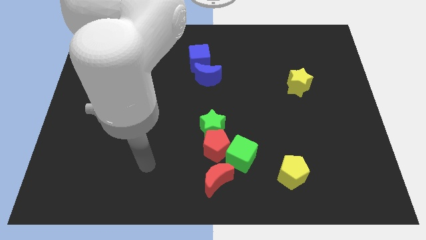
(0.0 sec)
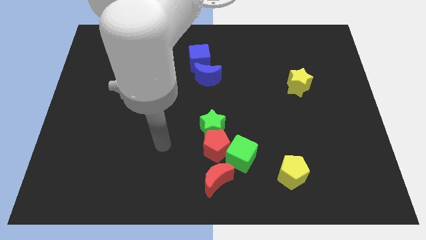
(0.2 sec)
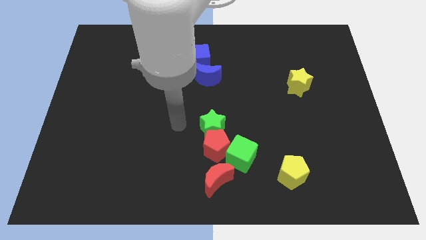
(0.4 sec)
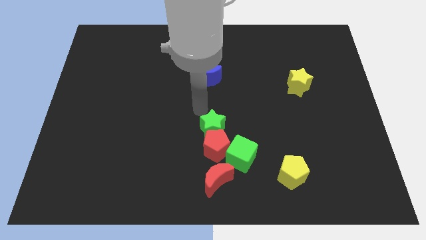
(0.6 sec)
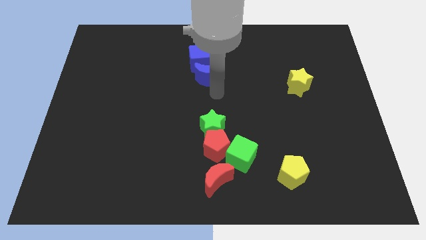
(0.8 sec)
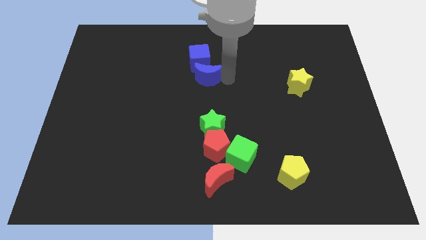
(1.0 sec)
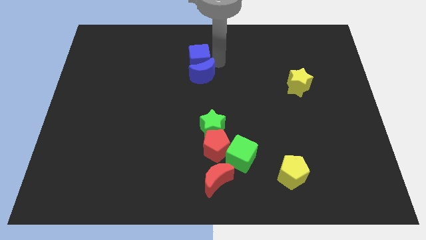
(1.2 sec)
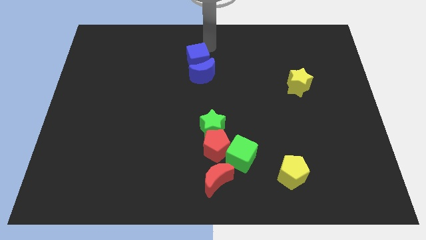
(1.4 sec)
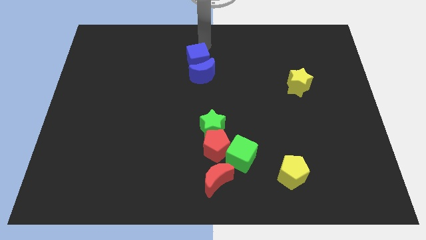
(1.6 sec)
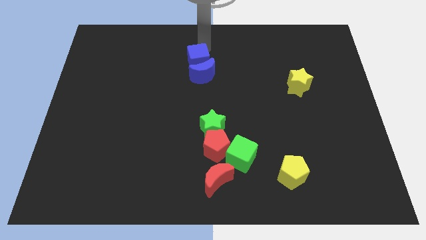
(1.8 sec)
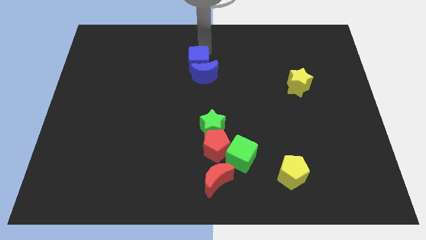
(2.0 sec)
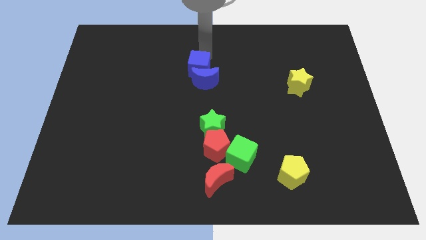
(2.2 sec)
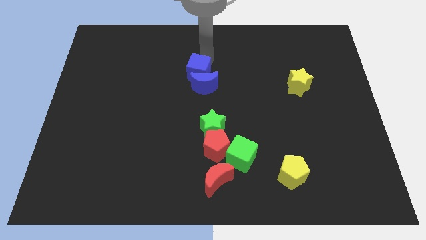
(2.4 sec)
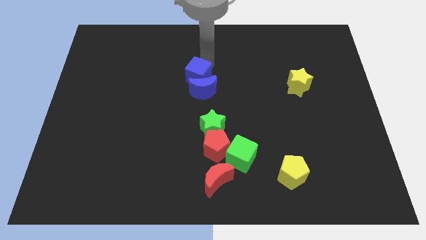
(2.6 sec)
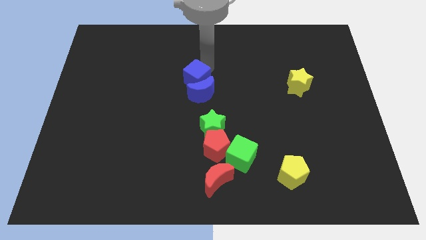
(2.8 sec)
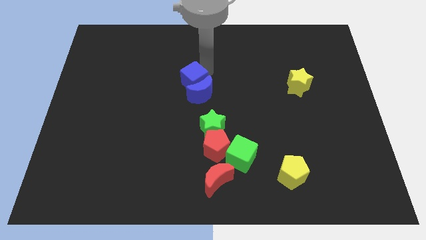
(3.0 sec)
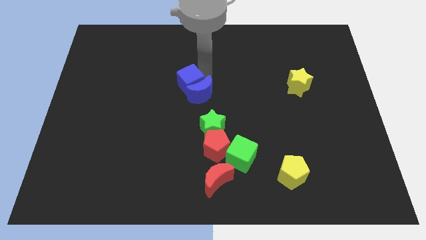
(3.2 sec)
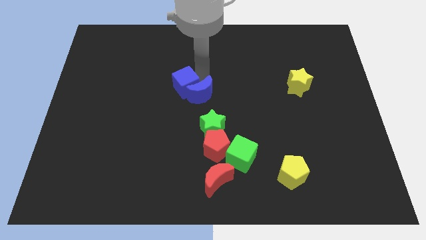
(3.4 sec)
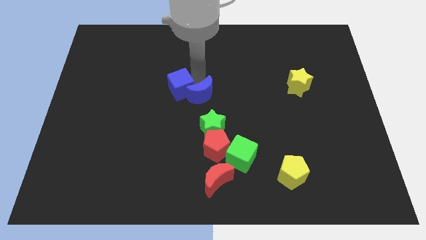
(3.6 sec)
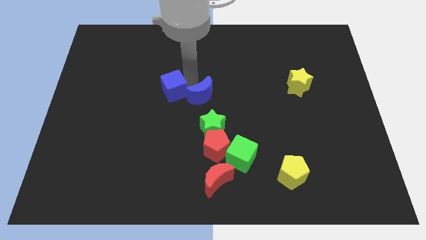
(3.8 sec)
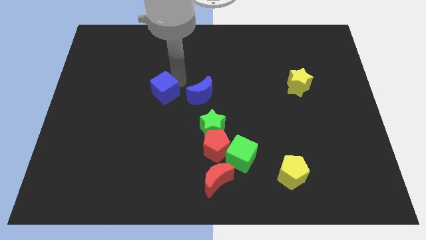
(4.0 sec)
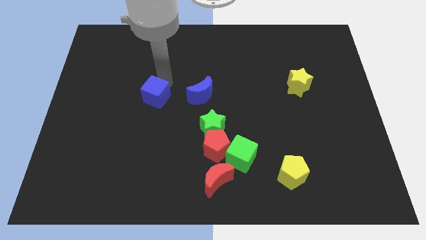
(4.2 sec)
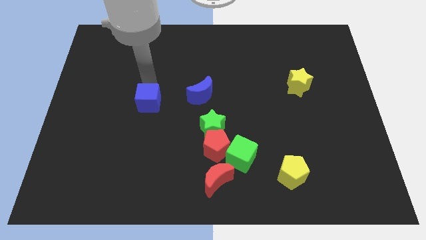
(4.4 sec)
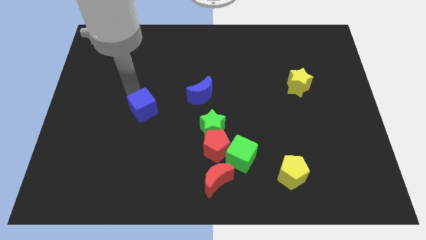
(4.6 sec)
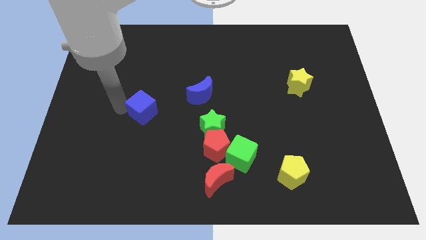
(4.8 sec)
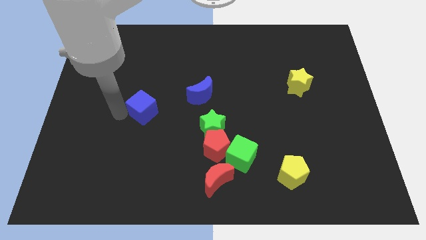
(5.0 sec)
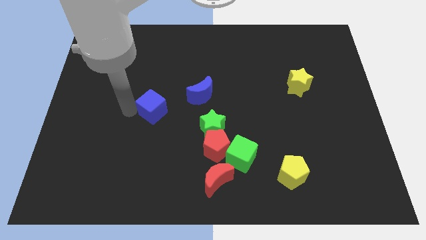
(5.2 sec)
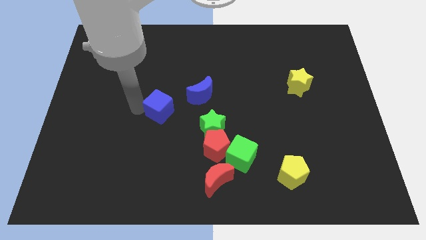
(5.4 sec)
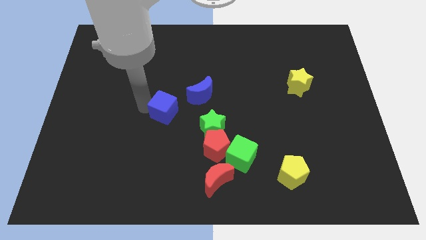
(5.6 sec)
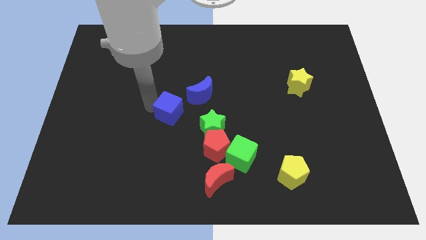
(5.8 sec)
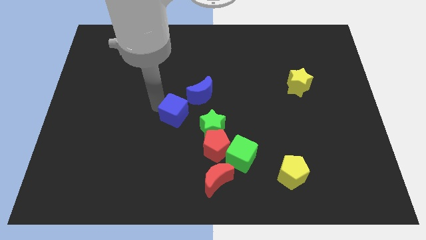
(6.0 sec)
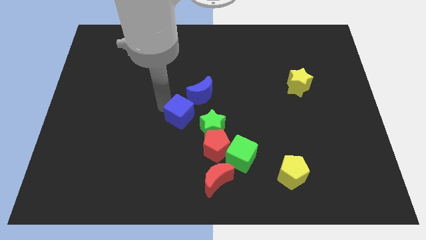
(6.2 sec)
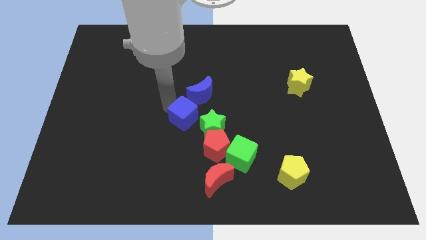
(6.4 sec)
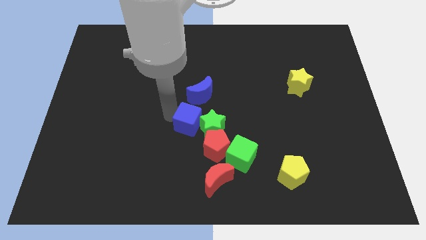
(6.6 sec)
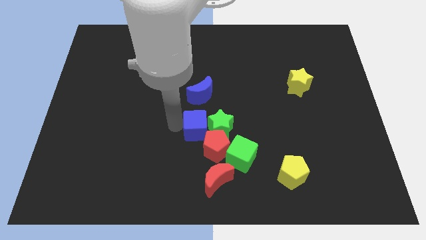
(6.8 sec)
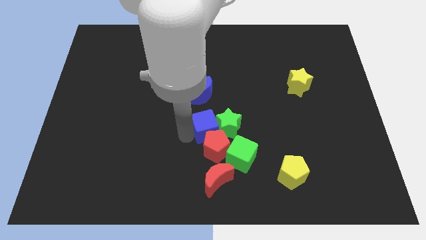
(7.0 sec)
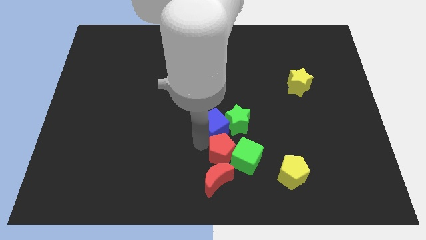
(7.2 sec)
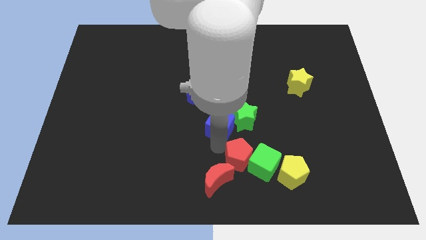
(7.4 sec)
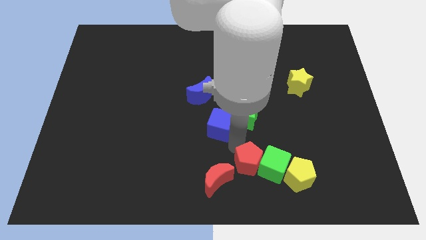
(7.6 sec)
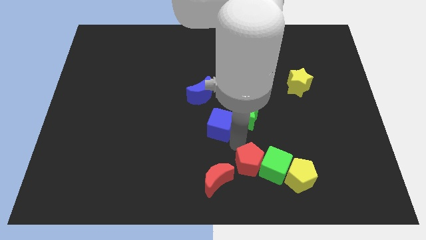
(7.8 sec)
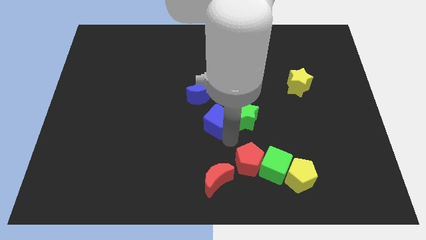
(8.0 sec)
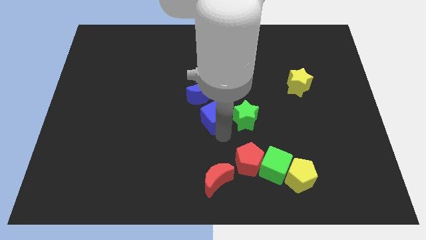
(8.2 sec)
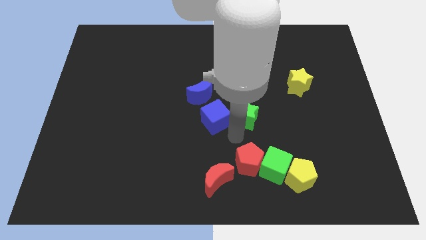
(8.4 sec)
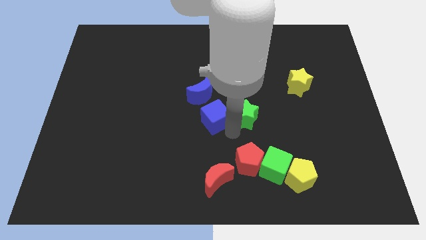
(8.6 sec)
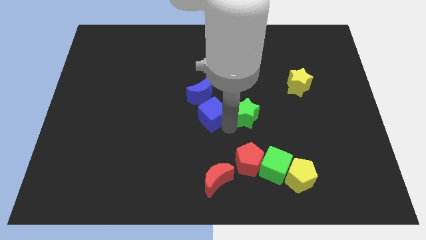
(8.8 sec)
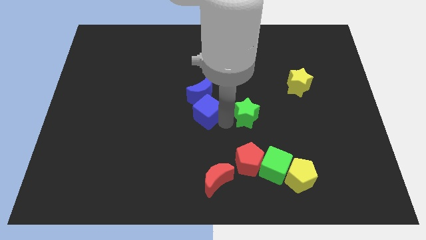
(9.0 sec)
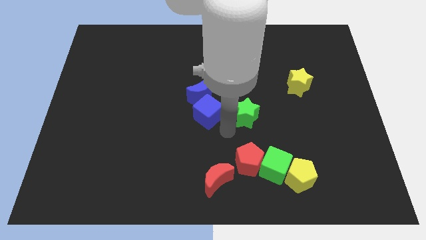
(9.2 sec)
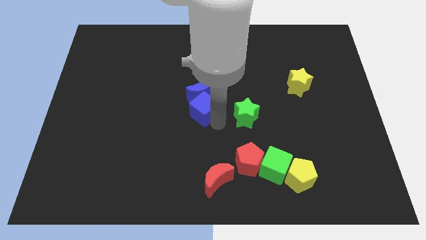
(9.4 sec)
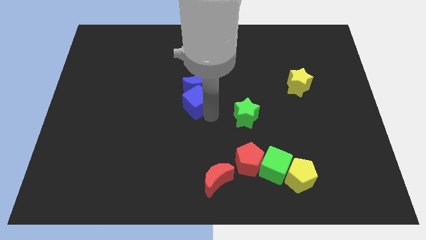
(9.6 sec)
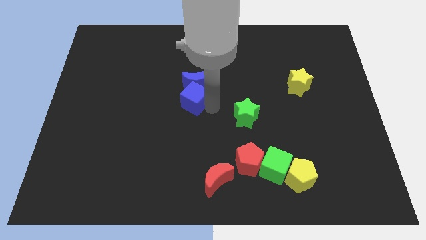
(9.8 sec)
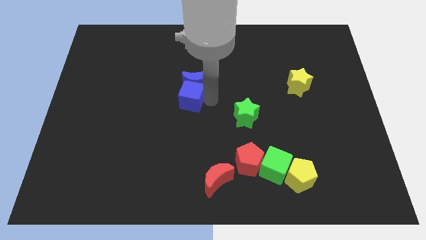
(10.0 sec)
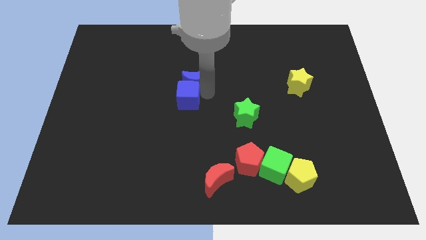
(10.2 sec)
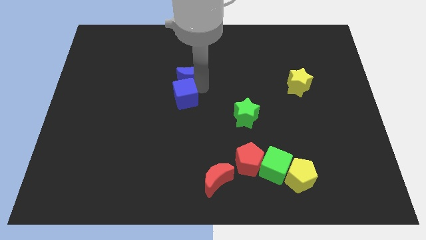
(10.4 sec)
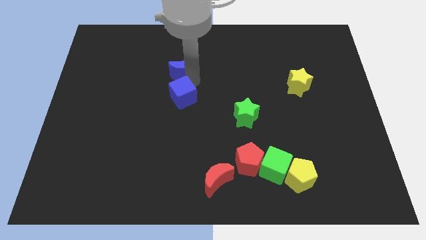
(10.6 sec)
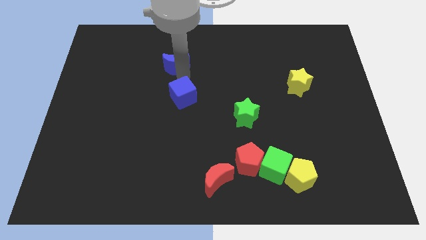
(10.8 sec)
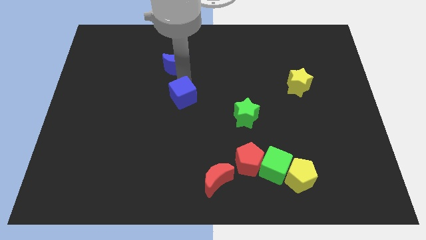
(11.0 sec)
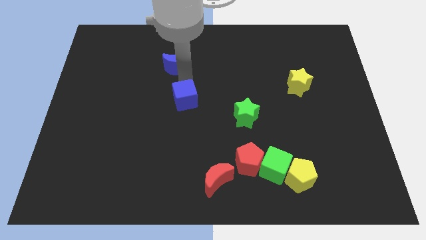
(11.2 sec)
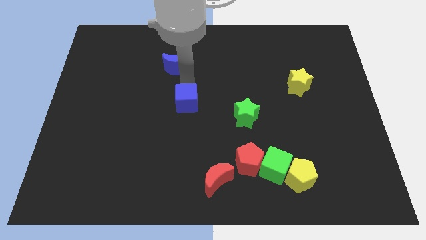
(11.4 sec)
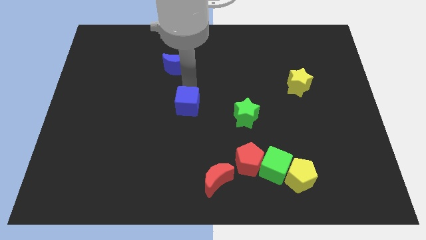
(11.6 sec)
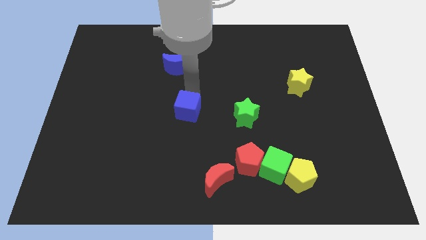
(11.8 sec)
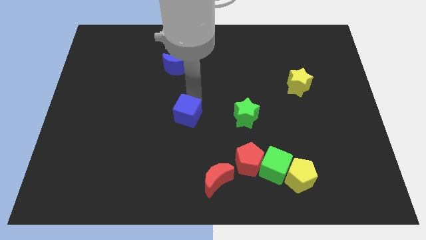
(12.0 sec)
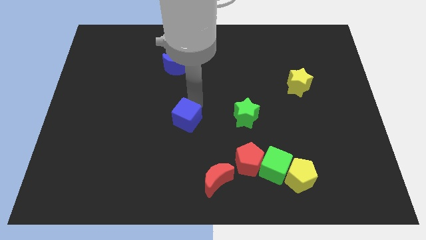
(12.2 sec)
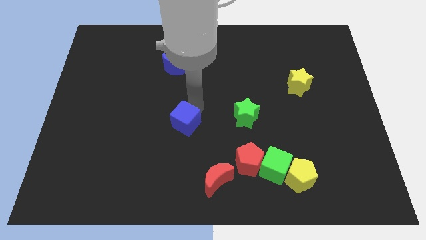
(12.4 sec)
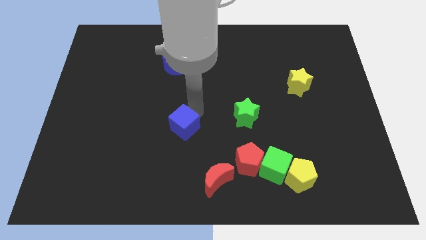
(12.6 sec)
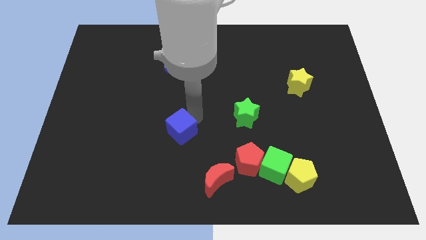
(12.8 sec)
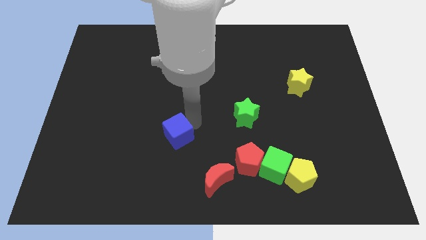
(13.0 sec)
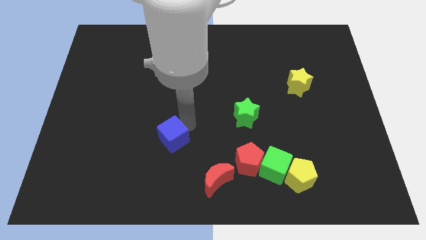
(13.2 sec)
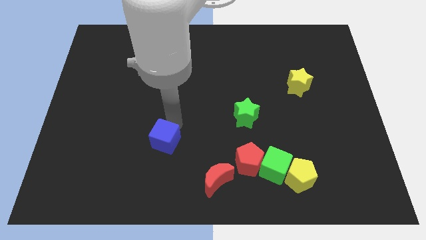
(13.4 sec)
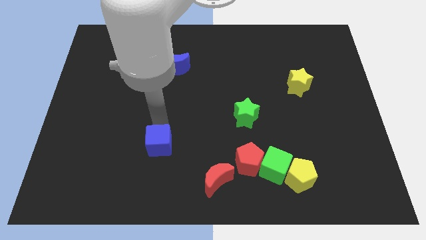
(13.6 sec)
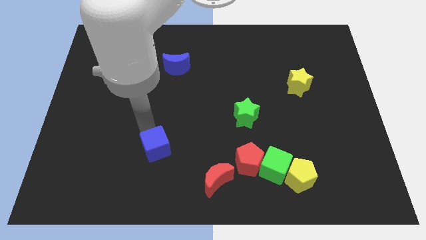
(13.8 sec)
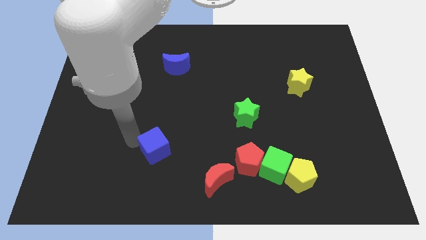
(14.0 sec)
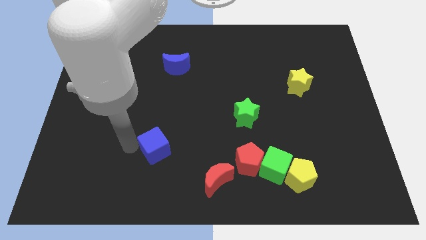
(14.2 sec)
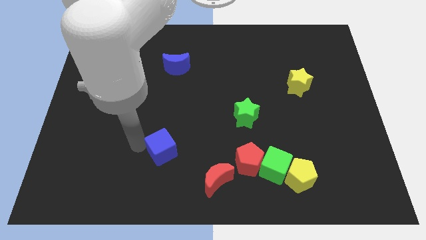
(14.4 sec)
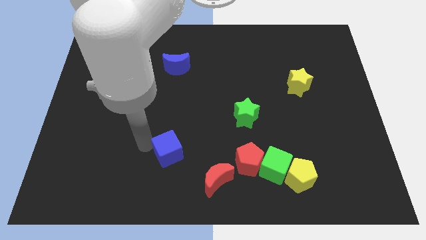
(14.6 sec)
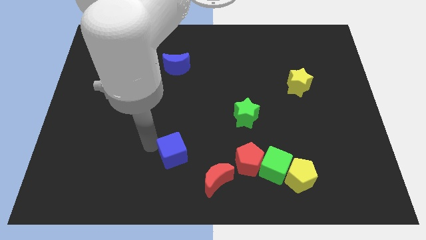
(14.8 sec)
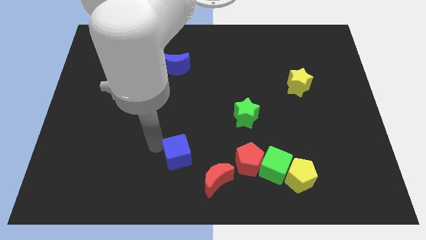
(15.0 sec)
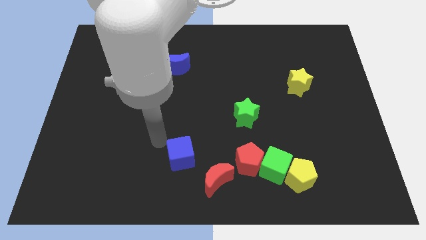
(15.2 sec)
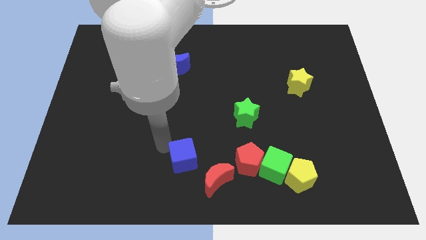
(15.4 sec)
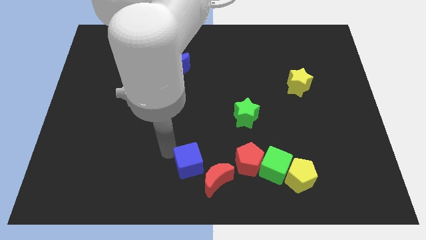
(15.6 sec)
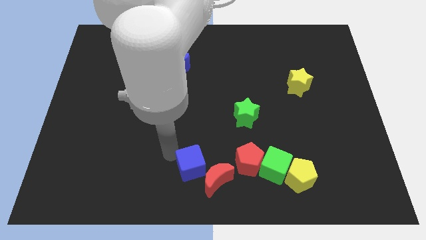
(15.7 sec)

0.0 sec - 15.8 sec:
slide the blue cube next to the red moon
